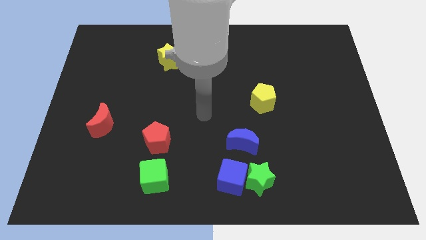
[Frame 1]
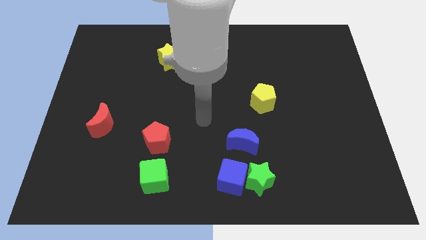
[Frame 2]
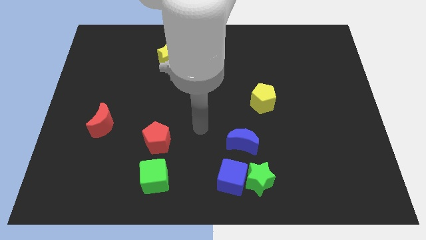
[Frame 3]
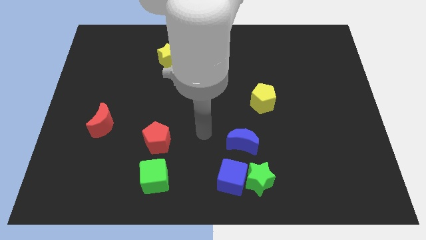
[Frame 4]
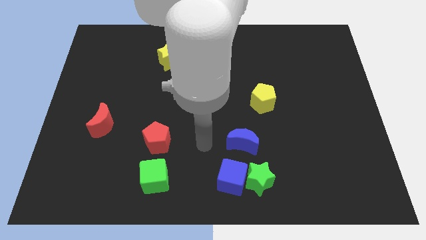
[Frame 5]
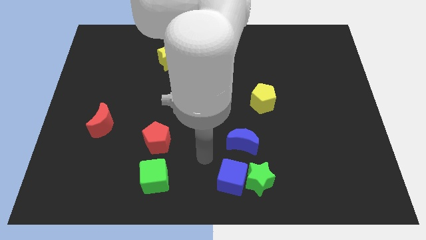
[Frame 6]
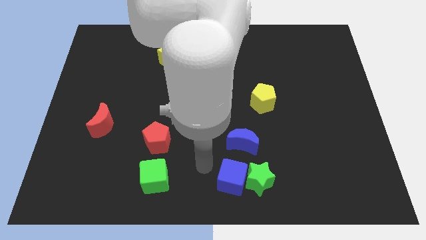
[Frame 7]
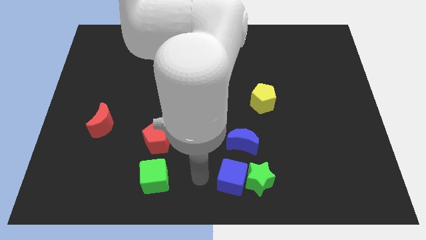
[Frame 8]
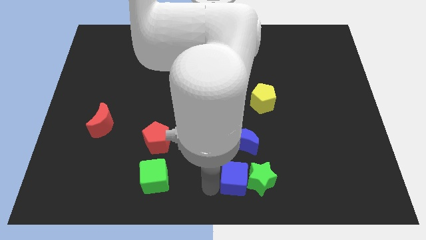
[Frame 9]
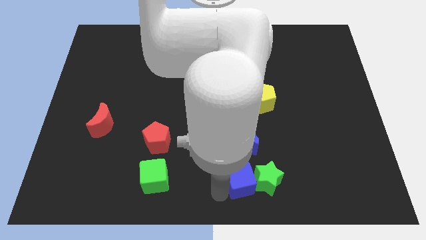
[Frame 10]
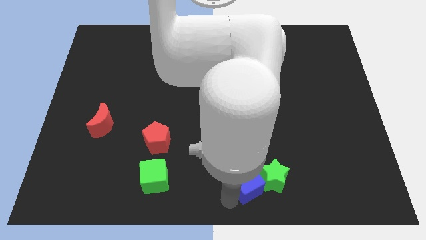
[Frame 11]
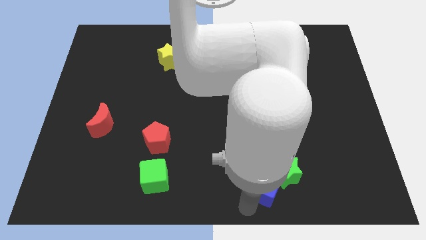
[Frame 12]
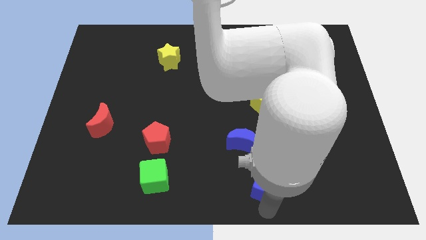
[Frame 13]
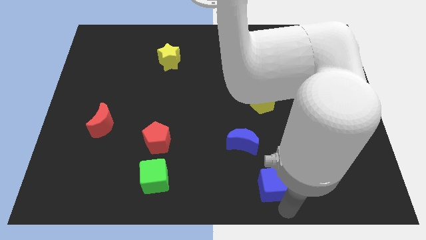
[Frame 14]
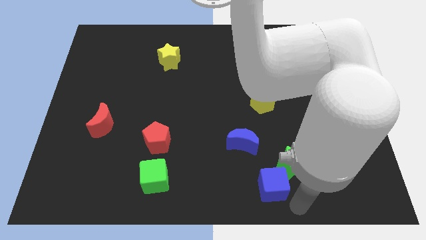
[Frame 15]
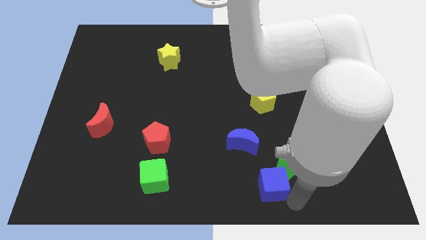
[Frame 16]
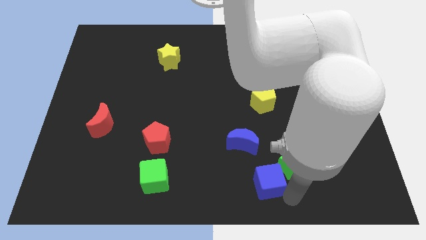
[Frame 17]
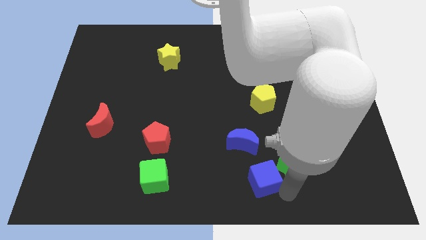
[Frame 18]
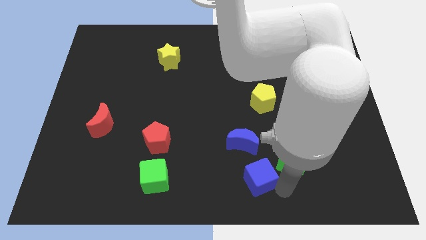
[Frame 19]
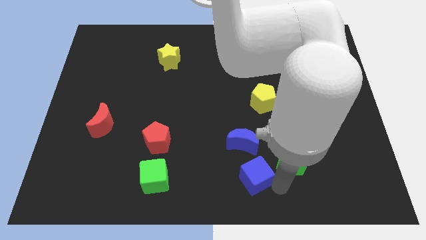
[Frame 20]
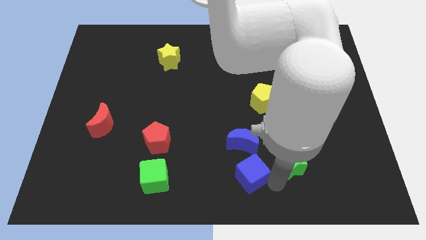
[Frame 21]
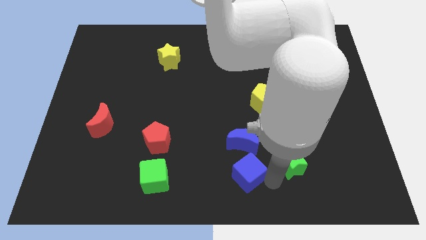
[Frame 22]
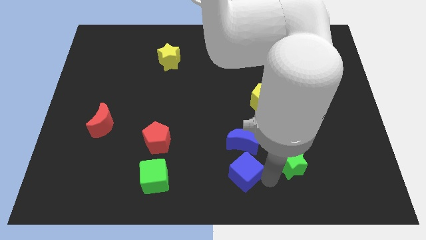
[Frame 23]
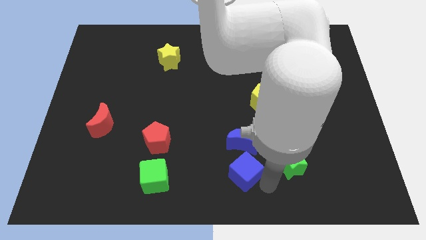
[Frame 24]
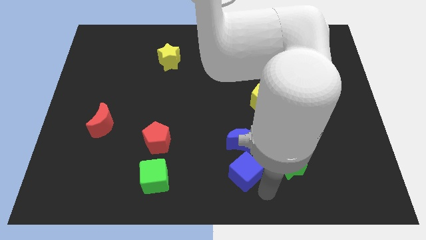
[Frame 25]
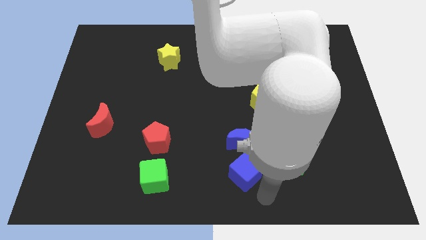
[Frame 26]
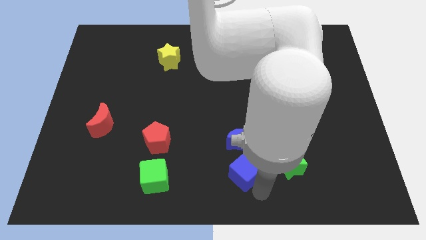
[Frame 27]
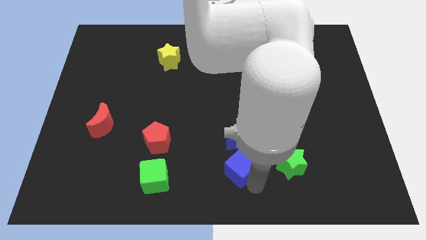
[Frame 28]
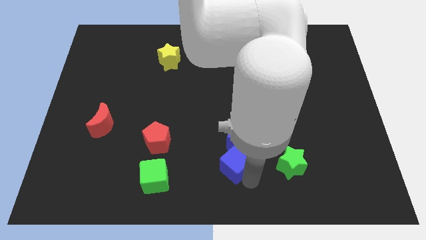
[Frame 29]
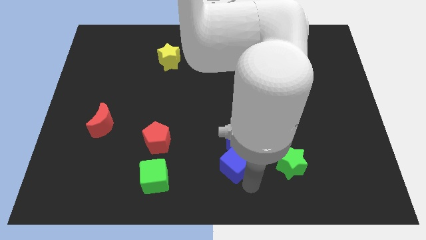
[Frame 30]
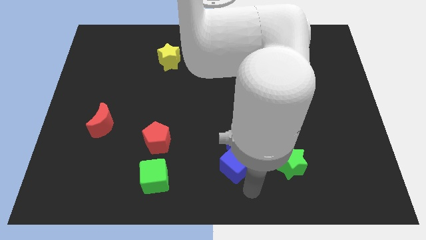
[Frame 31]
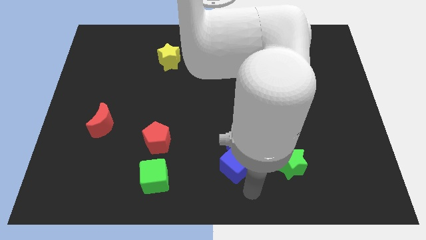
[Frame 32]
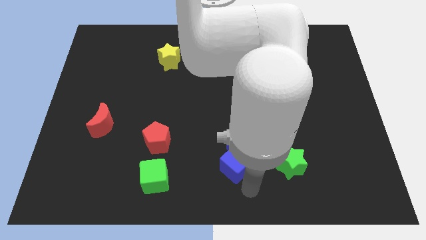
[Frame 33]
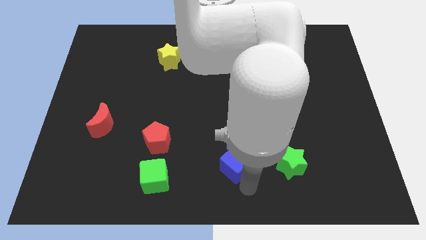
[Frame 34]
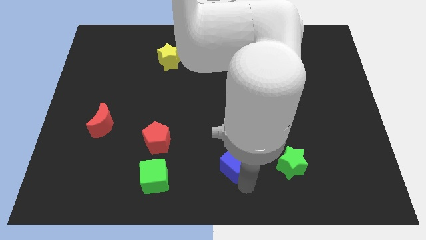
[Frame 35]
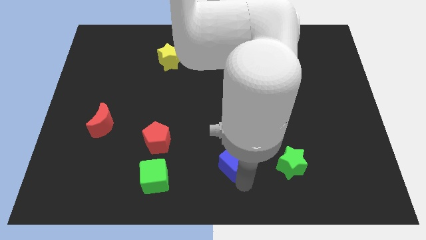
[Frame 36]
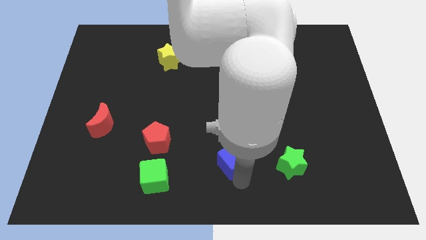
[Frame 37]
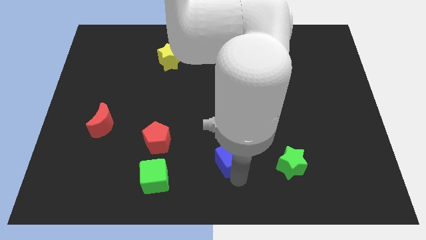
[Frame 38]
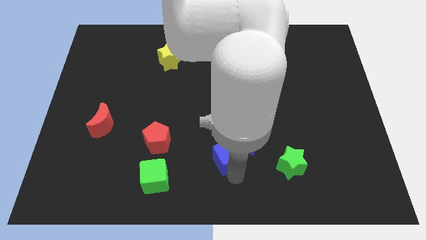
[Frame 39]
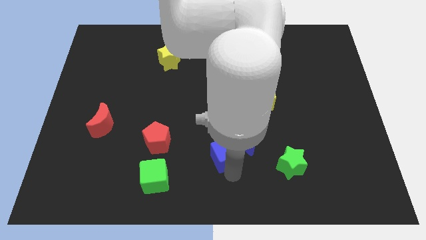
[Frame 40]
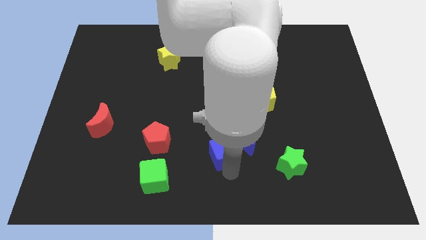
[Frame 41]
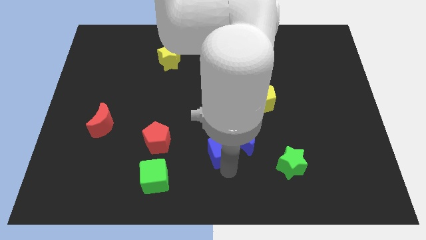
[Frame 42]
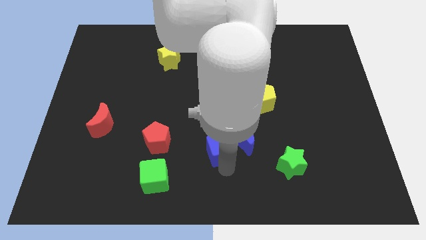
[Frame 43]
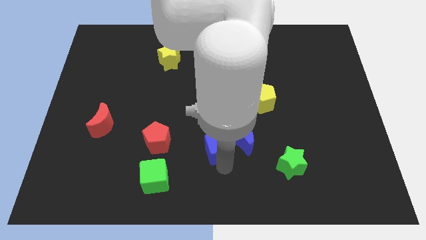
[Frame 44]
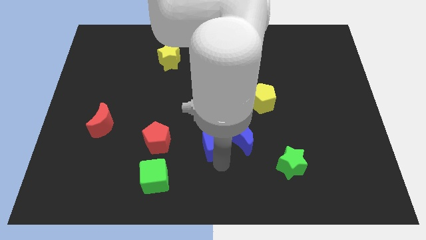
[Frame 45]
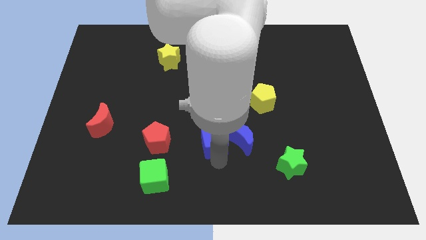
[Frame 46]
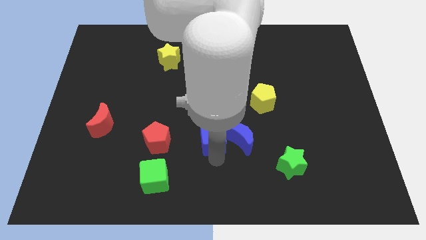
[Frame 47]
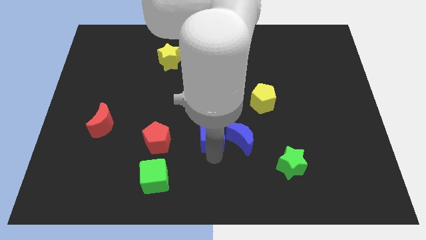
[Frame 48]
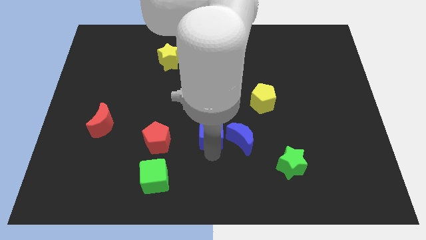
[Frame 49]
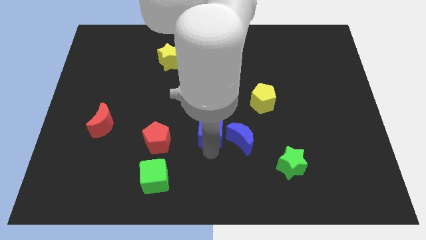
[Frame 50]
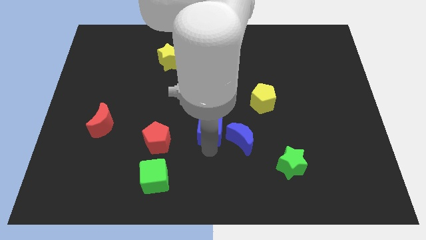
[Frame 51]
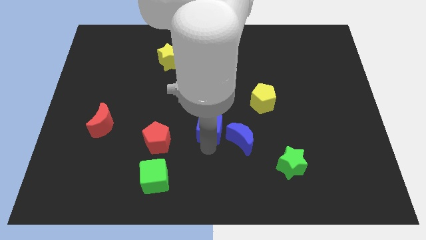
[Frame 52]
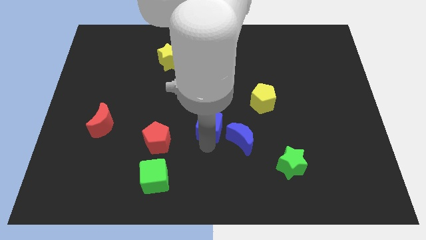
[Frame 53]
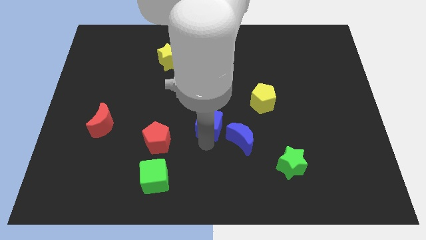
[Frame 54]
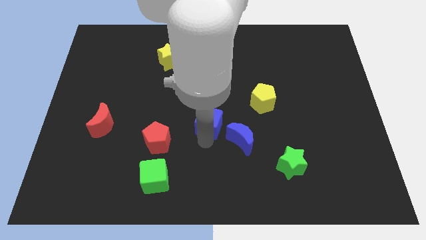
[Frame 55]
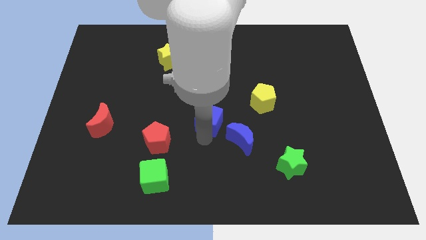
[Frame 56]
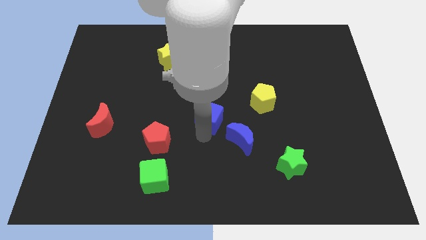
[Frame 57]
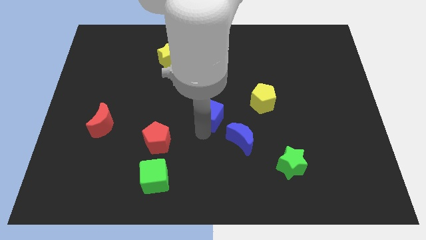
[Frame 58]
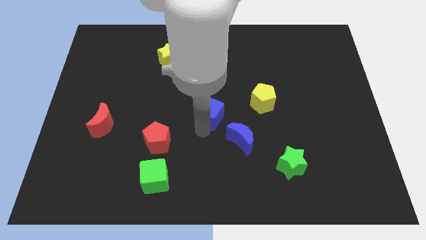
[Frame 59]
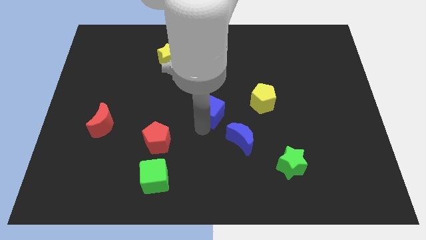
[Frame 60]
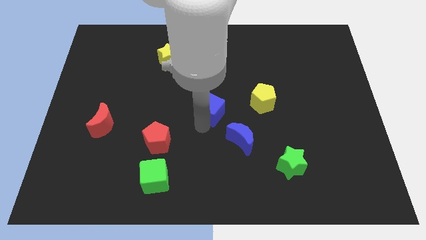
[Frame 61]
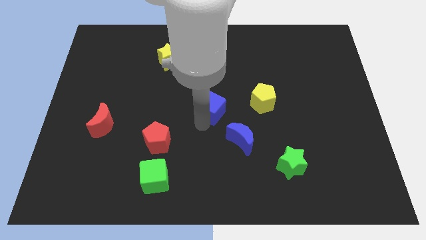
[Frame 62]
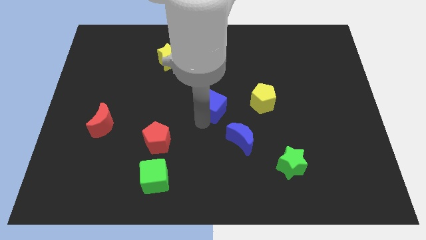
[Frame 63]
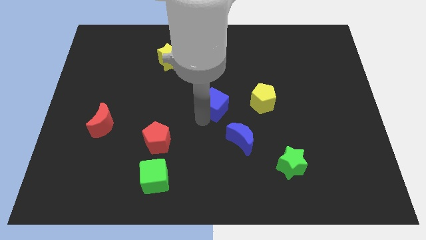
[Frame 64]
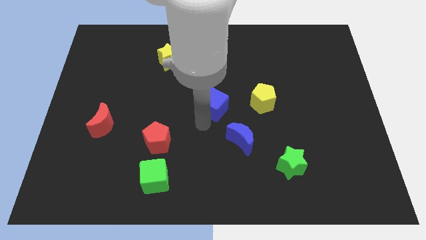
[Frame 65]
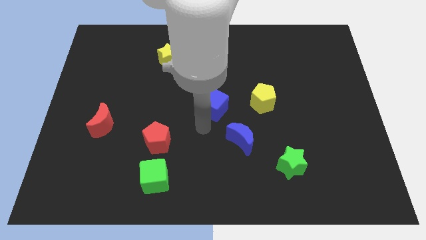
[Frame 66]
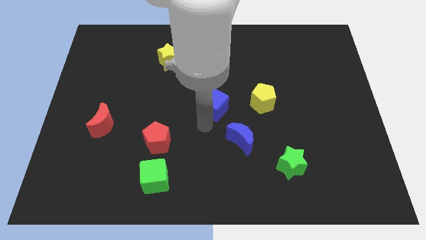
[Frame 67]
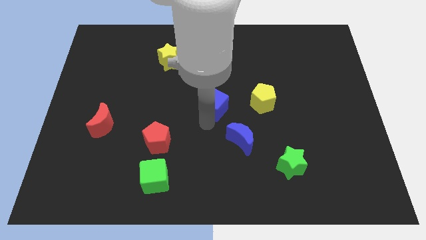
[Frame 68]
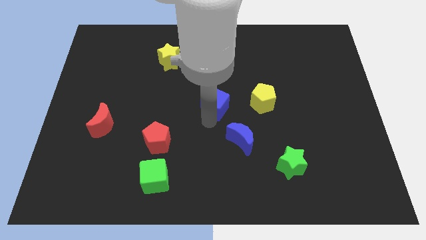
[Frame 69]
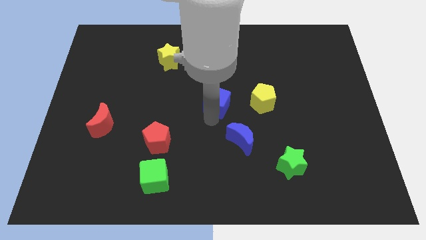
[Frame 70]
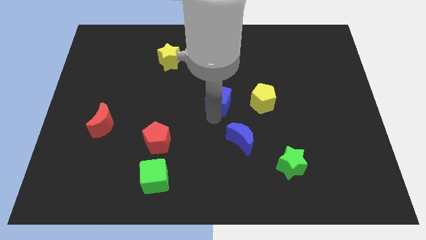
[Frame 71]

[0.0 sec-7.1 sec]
slide the blue cube up

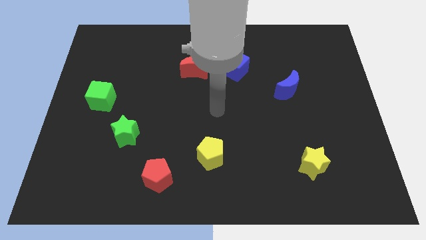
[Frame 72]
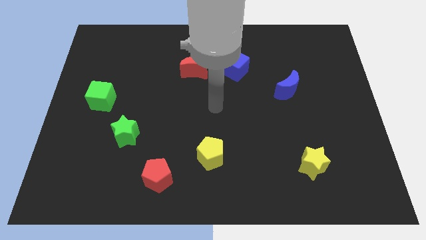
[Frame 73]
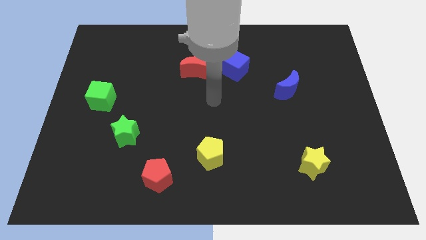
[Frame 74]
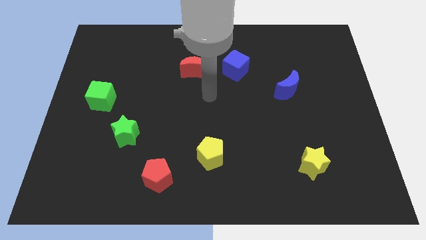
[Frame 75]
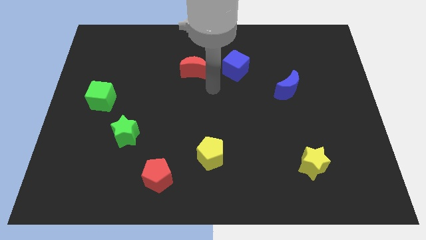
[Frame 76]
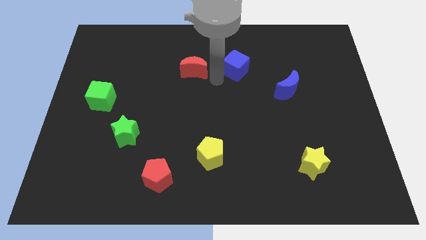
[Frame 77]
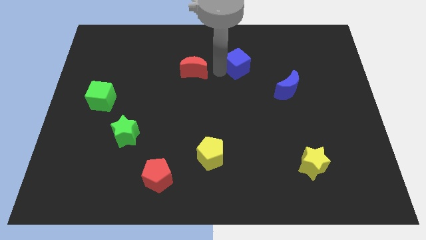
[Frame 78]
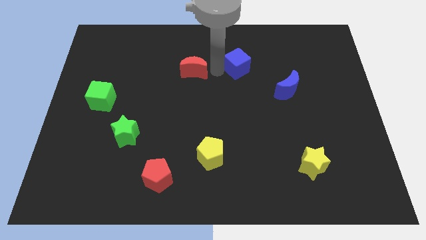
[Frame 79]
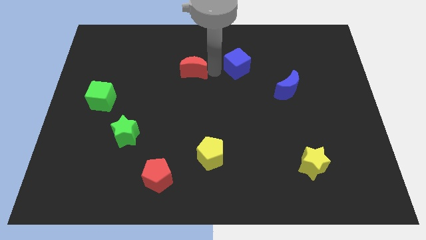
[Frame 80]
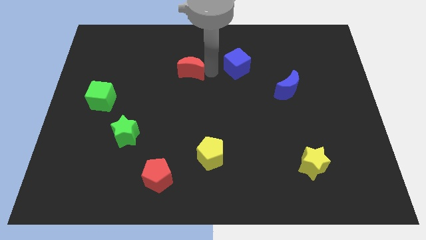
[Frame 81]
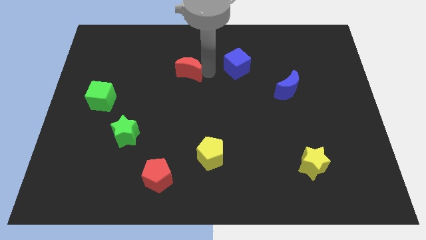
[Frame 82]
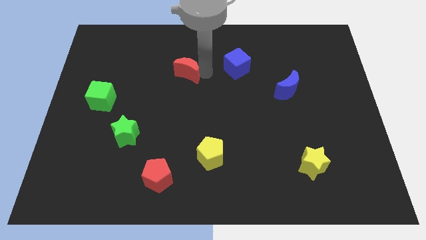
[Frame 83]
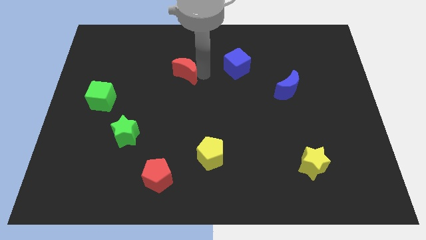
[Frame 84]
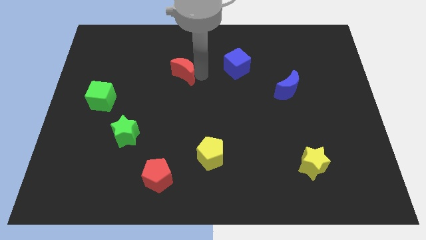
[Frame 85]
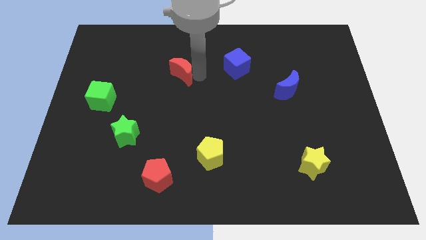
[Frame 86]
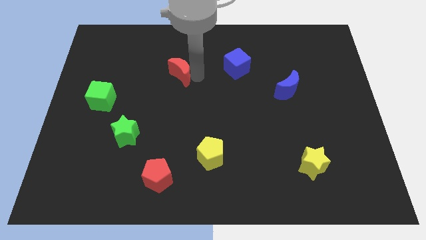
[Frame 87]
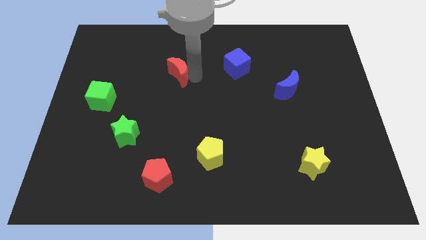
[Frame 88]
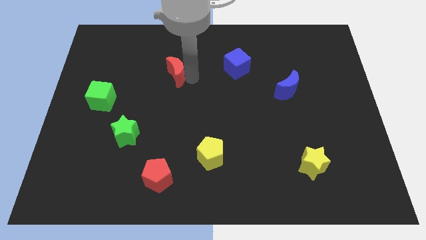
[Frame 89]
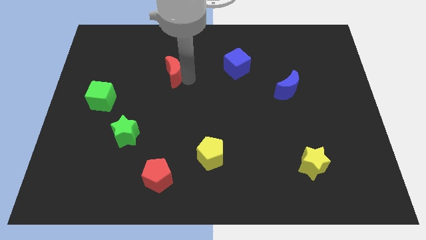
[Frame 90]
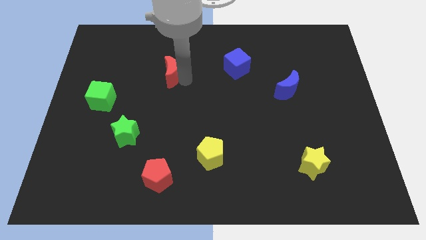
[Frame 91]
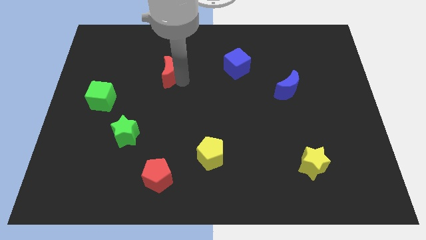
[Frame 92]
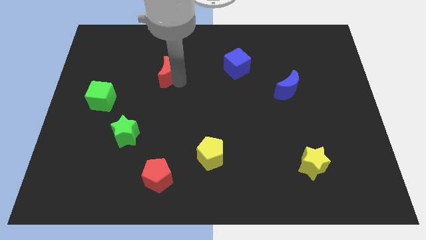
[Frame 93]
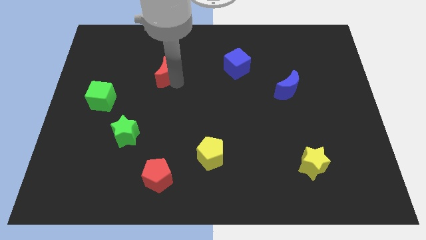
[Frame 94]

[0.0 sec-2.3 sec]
slightly slide the red moon to the left
